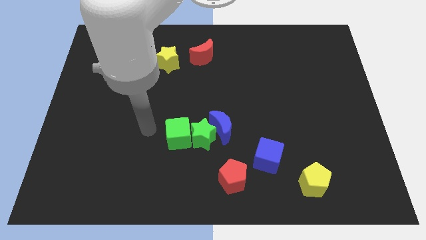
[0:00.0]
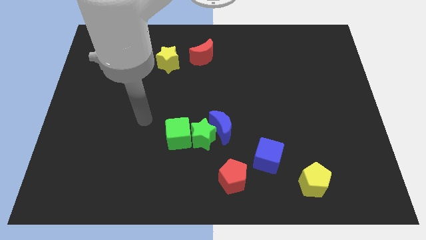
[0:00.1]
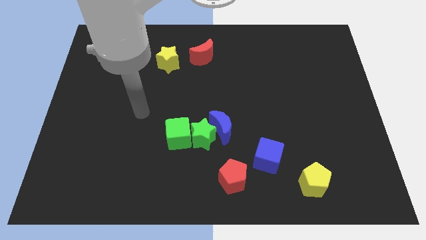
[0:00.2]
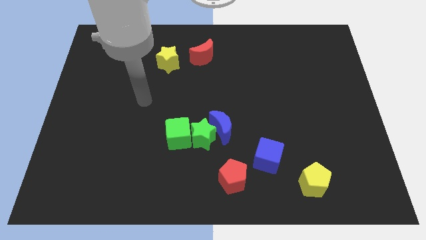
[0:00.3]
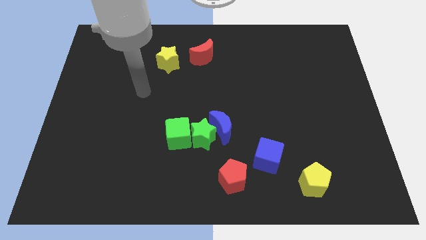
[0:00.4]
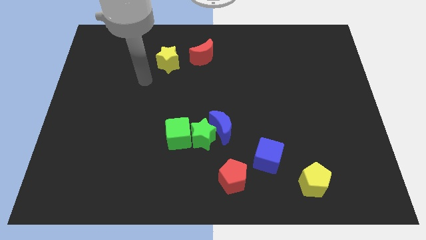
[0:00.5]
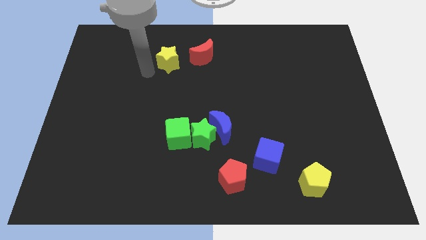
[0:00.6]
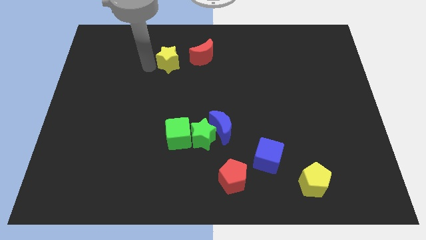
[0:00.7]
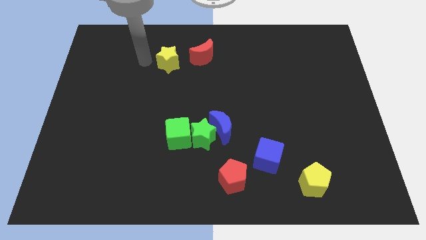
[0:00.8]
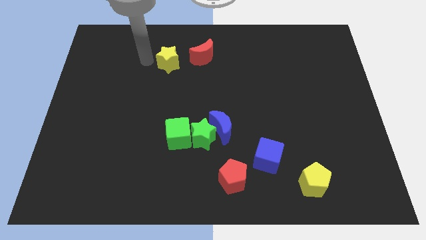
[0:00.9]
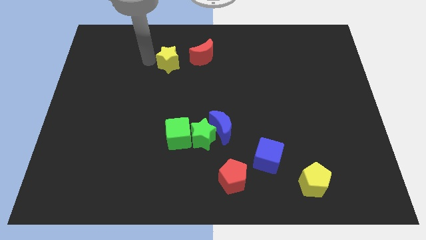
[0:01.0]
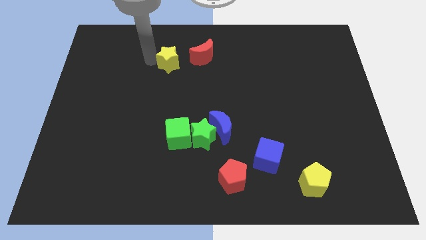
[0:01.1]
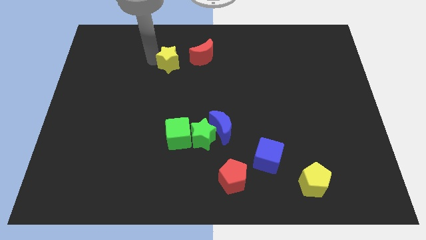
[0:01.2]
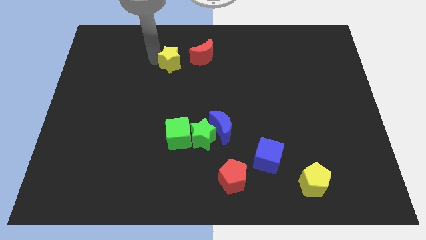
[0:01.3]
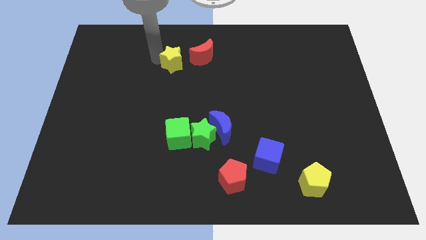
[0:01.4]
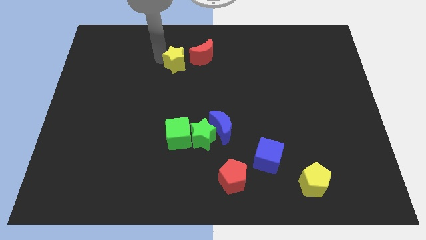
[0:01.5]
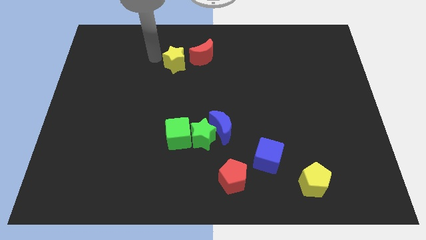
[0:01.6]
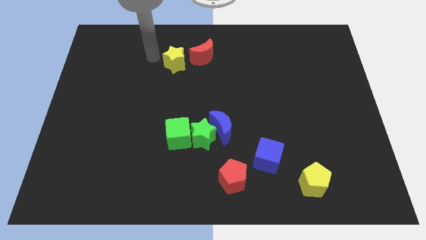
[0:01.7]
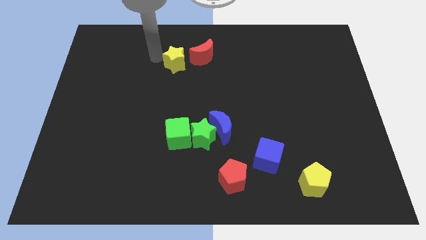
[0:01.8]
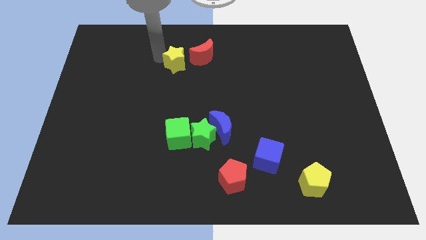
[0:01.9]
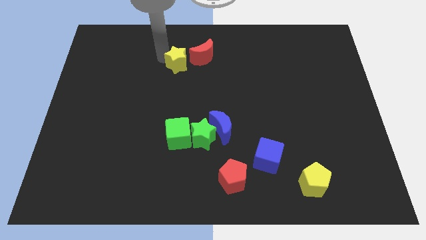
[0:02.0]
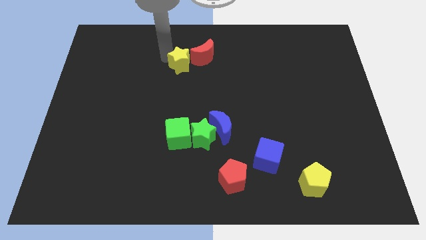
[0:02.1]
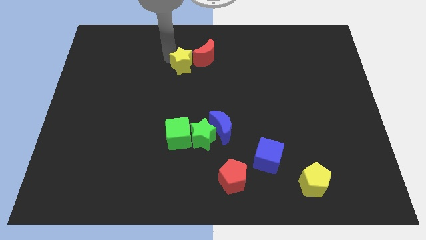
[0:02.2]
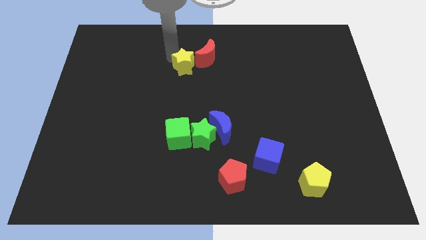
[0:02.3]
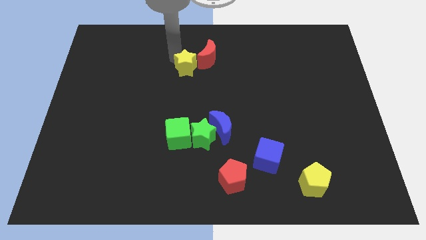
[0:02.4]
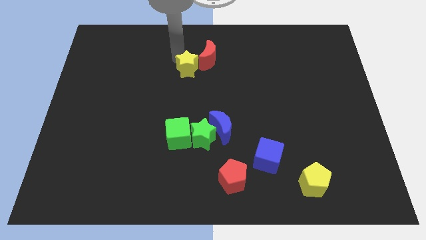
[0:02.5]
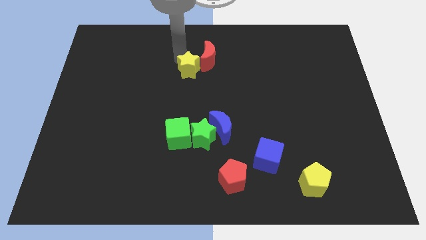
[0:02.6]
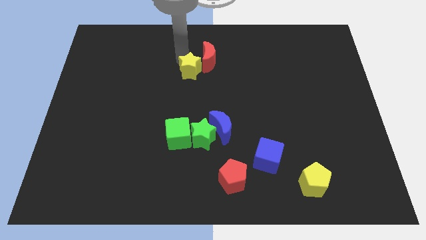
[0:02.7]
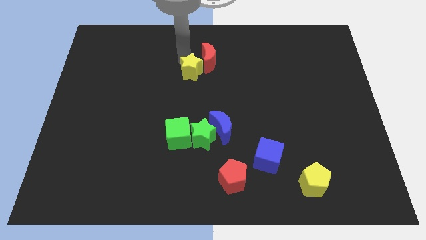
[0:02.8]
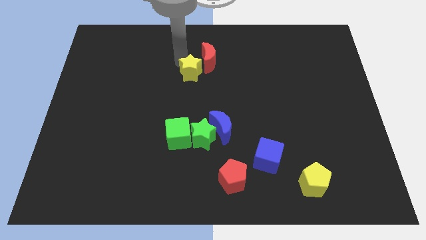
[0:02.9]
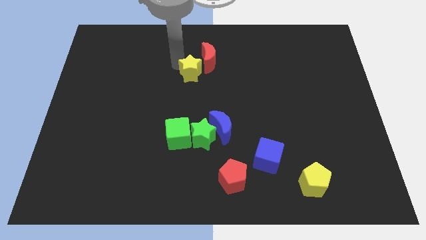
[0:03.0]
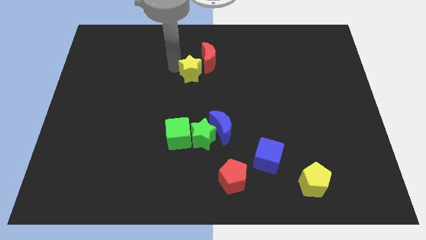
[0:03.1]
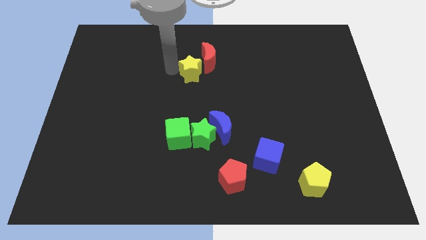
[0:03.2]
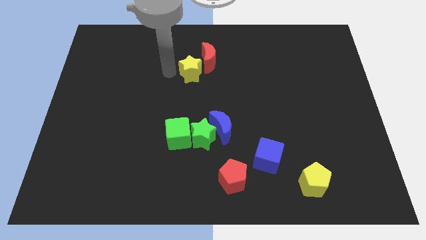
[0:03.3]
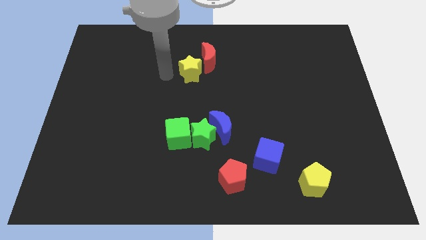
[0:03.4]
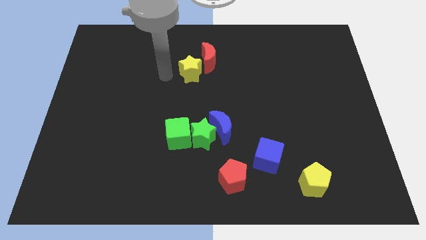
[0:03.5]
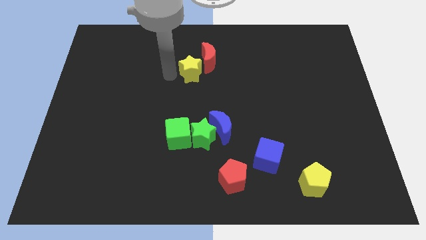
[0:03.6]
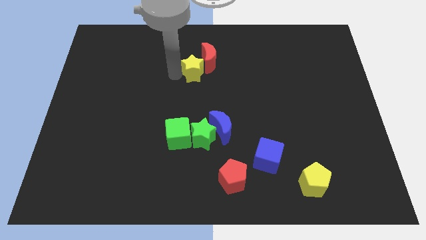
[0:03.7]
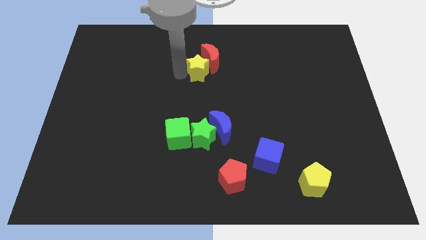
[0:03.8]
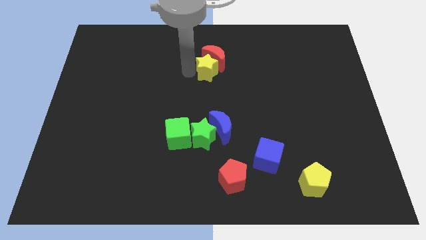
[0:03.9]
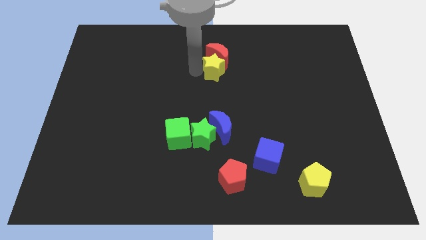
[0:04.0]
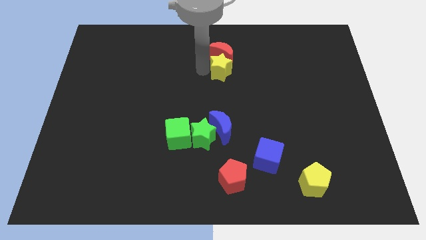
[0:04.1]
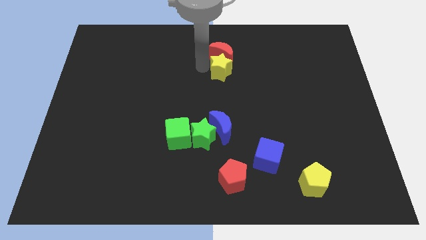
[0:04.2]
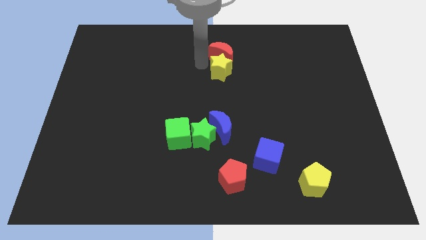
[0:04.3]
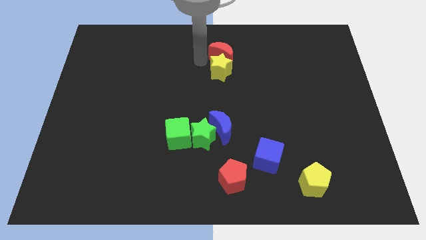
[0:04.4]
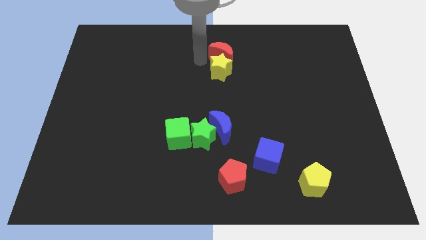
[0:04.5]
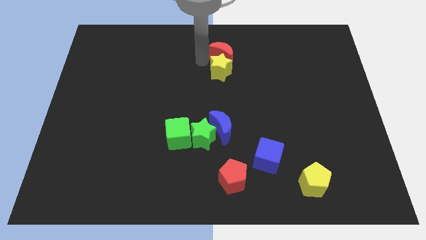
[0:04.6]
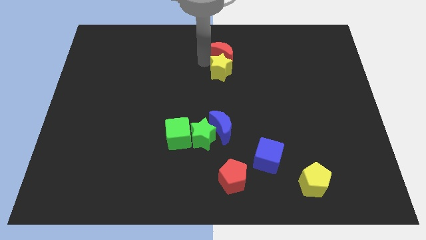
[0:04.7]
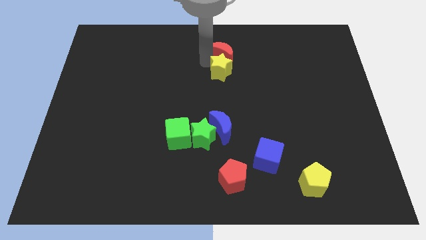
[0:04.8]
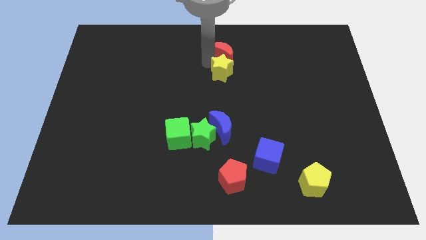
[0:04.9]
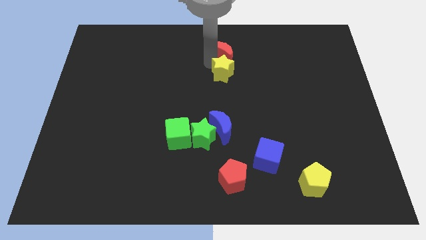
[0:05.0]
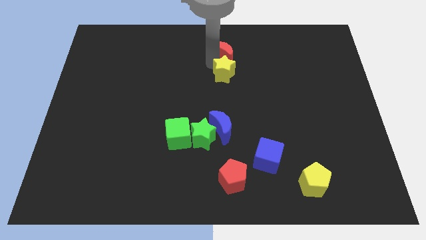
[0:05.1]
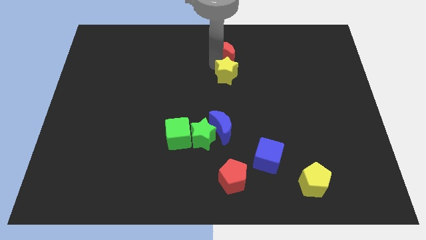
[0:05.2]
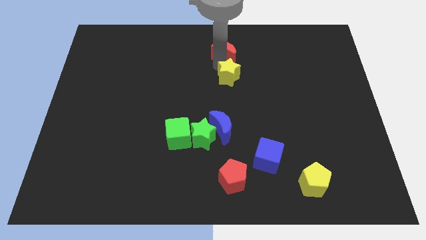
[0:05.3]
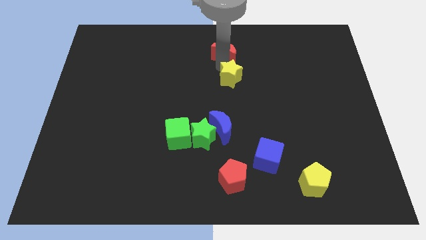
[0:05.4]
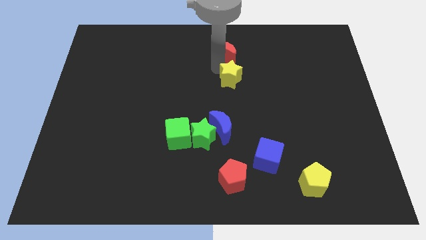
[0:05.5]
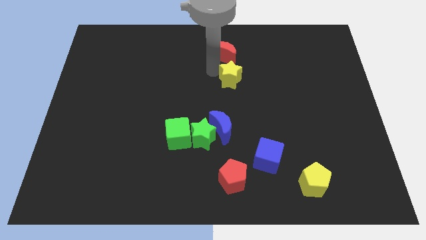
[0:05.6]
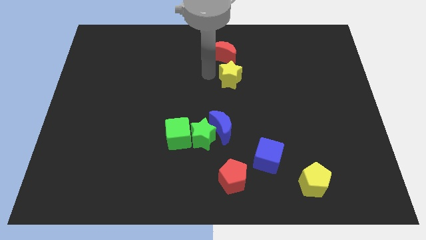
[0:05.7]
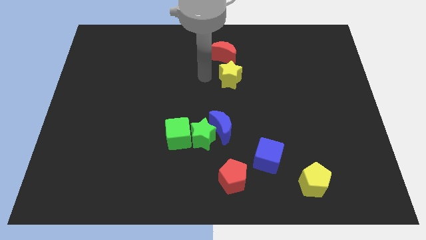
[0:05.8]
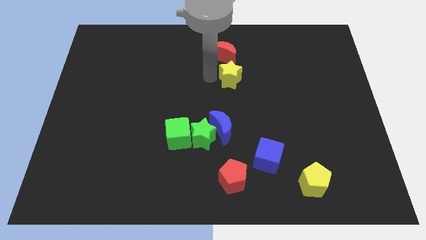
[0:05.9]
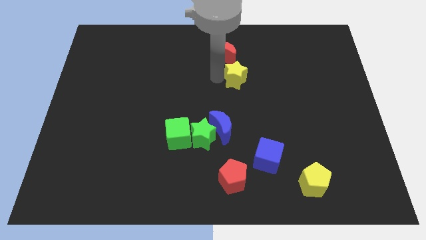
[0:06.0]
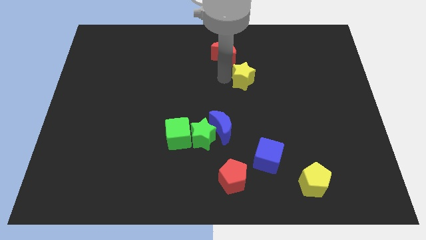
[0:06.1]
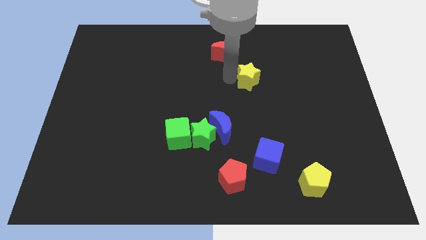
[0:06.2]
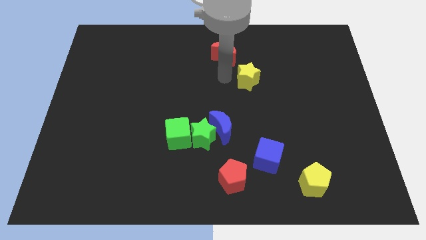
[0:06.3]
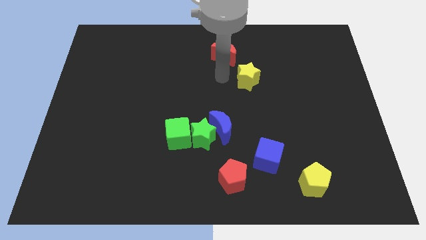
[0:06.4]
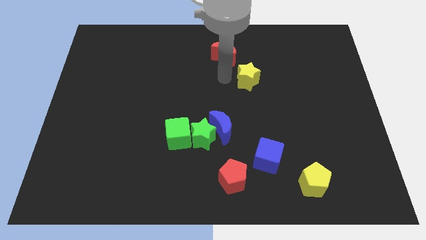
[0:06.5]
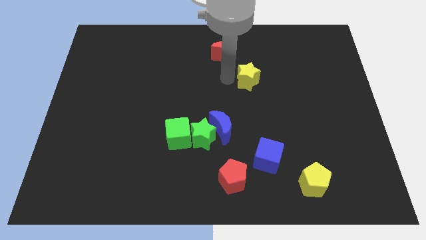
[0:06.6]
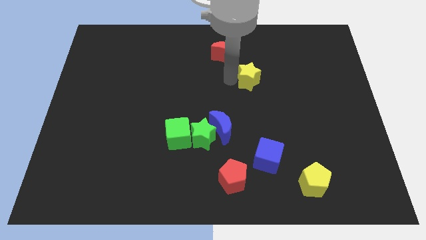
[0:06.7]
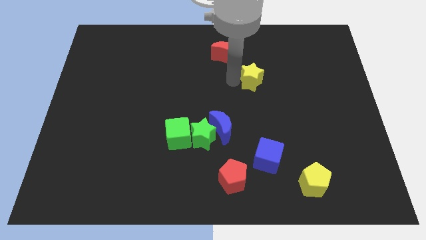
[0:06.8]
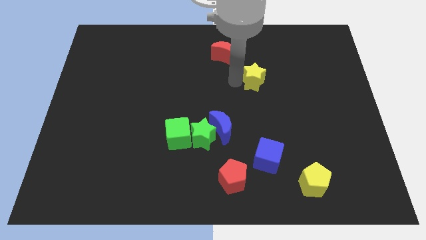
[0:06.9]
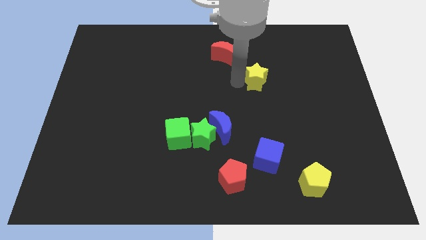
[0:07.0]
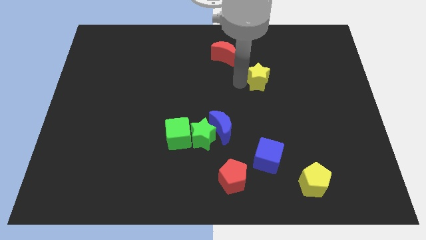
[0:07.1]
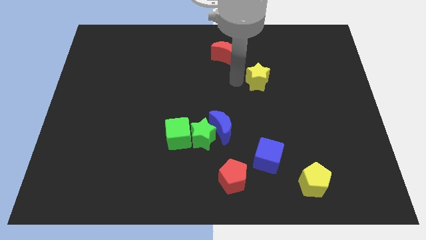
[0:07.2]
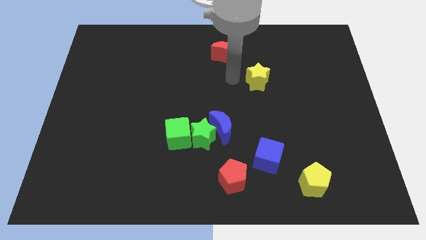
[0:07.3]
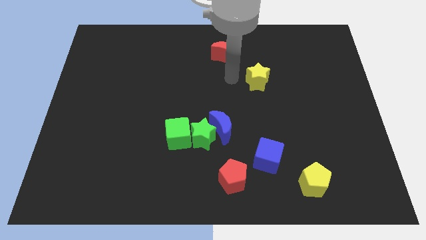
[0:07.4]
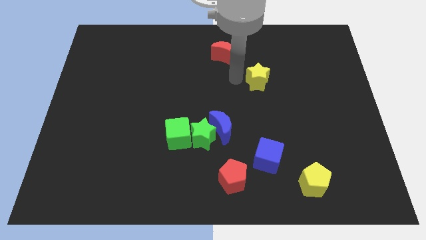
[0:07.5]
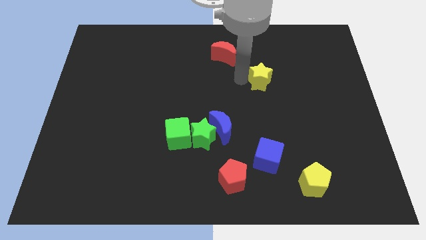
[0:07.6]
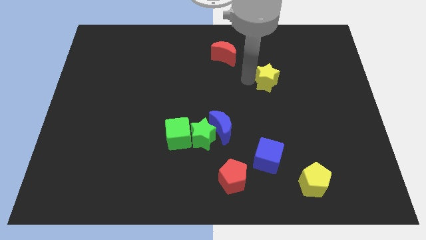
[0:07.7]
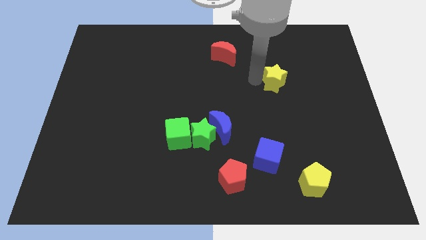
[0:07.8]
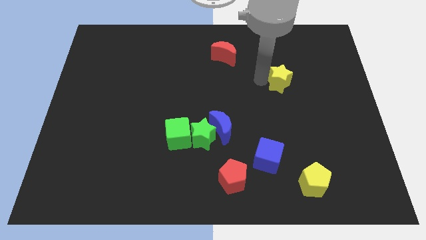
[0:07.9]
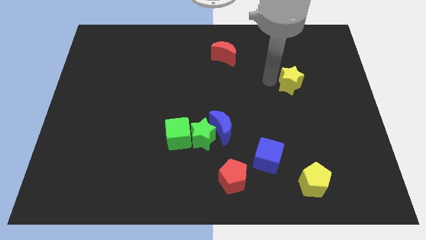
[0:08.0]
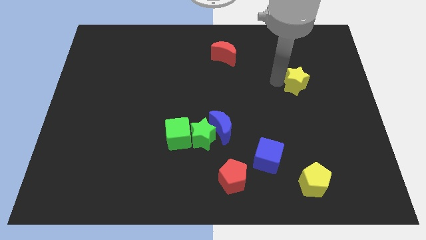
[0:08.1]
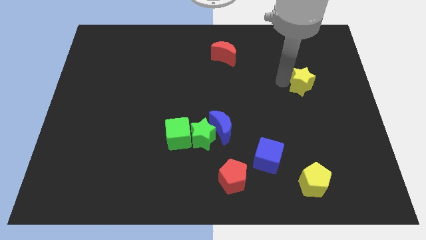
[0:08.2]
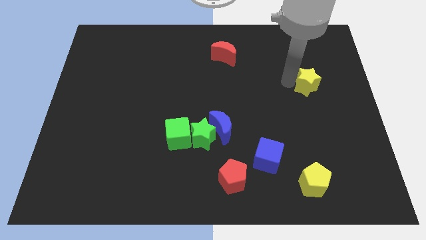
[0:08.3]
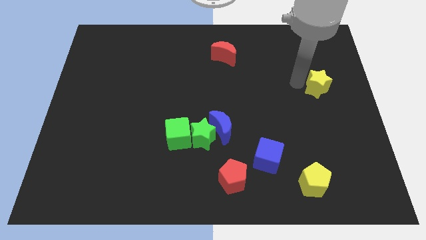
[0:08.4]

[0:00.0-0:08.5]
slide the yellow star to the right side of the board
